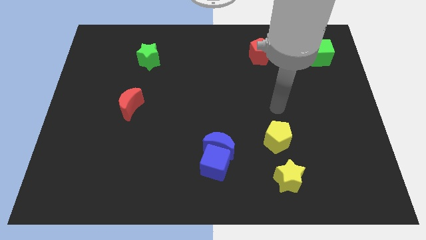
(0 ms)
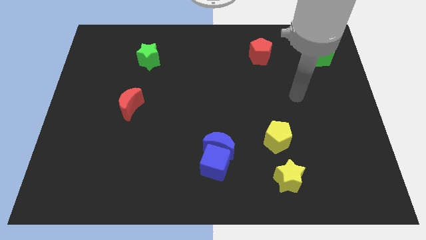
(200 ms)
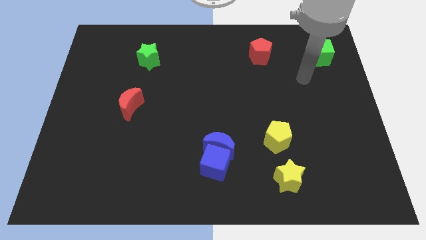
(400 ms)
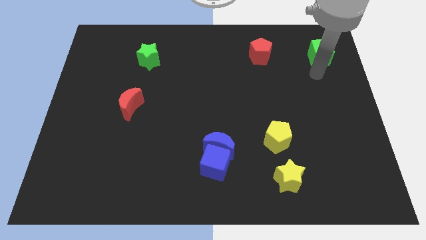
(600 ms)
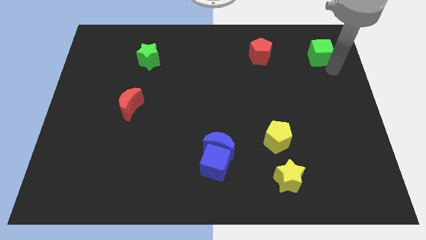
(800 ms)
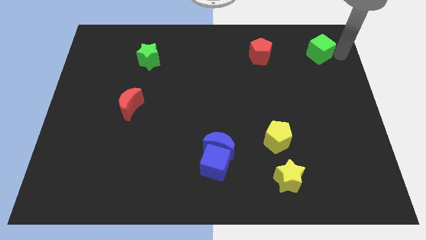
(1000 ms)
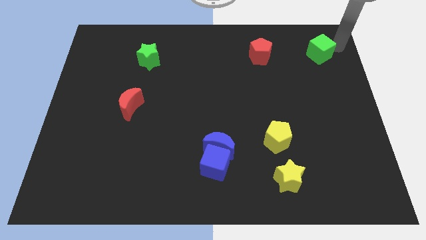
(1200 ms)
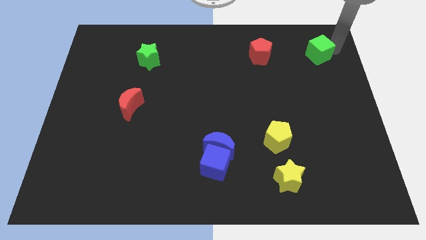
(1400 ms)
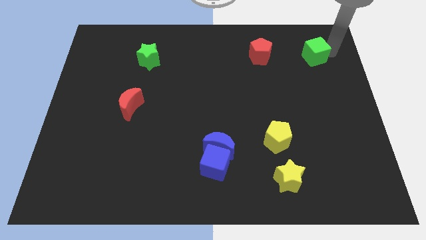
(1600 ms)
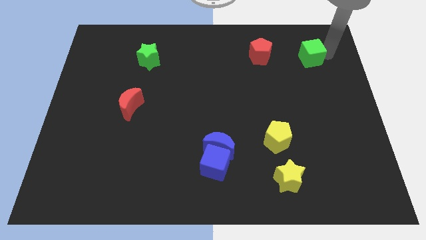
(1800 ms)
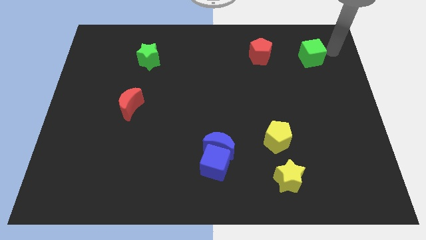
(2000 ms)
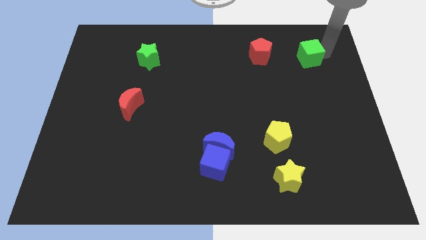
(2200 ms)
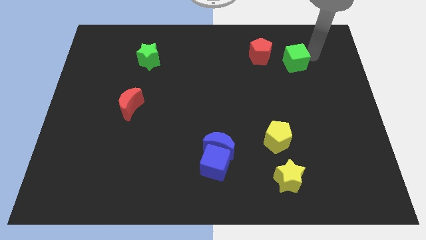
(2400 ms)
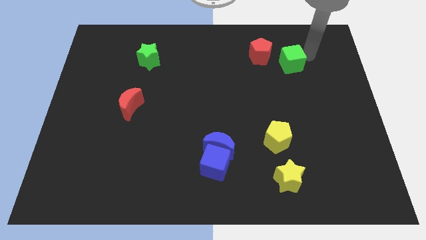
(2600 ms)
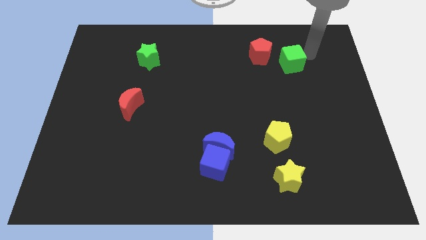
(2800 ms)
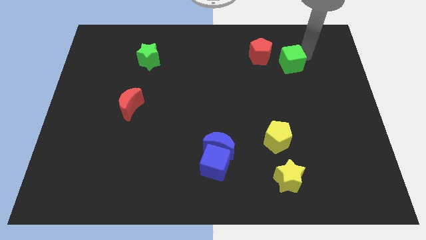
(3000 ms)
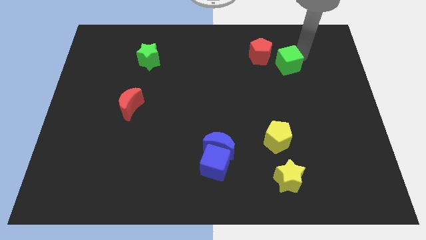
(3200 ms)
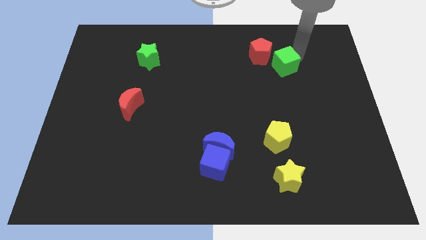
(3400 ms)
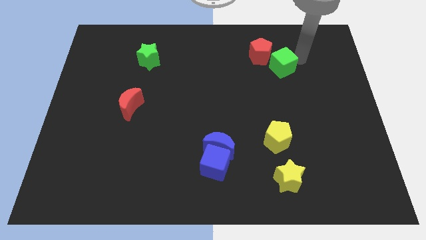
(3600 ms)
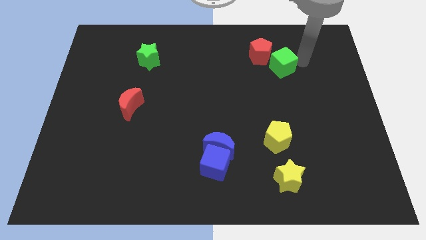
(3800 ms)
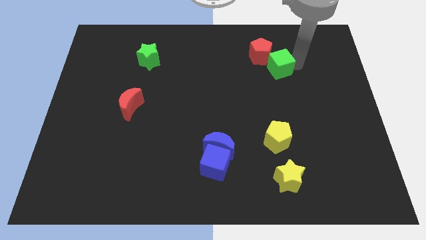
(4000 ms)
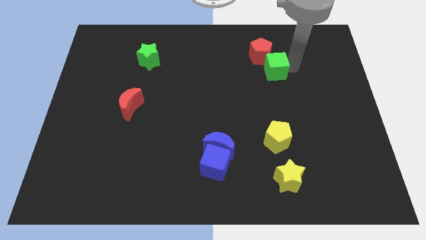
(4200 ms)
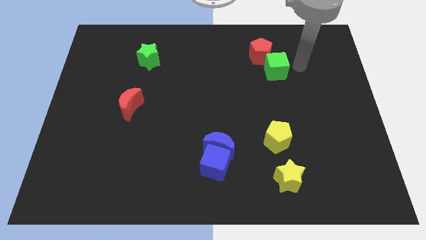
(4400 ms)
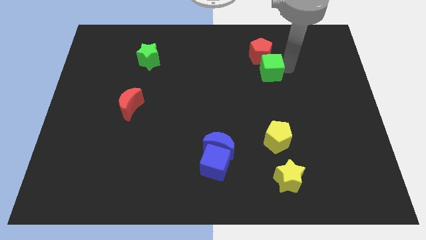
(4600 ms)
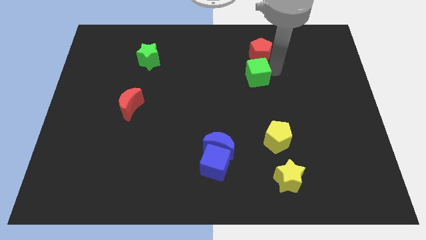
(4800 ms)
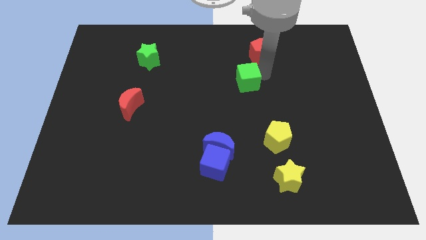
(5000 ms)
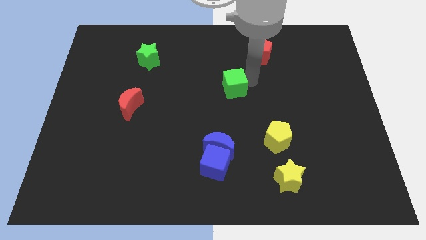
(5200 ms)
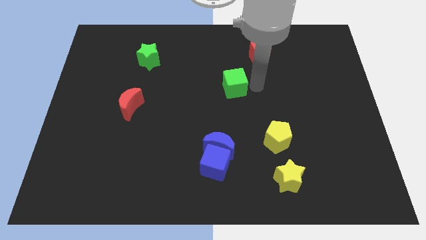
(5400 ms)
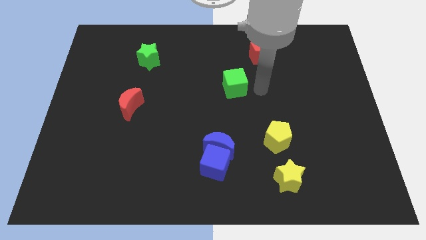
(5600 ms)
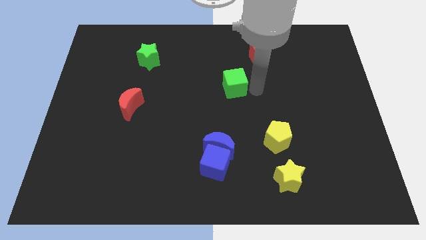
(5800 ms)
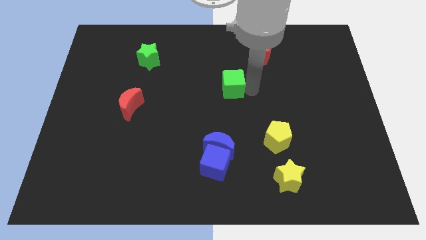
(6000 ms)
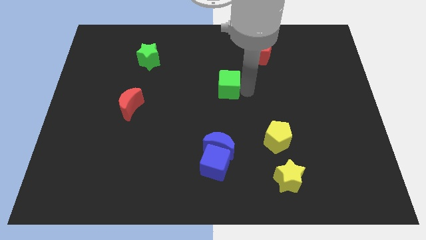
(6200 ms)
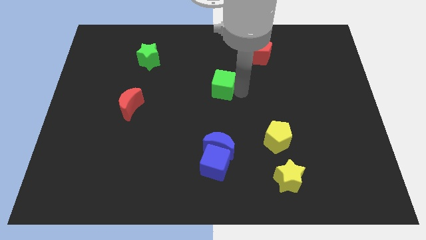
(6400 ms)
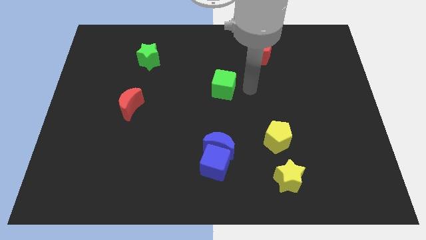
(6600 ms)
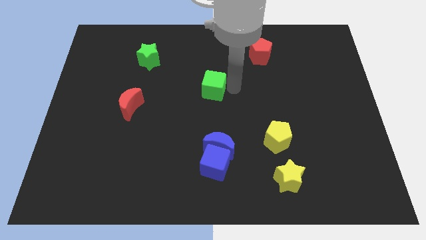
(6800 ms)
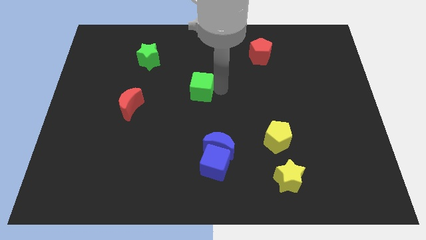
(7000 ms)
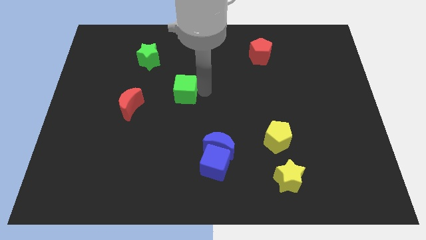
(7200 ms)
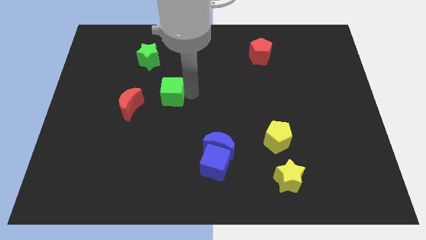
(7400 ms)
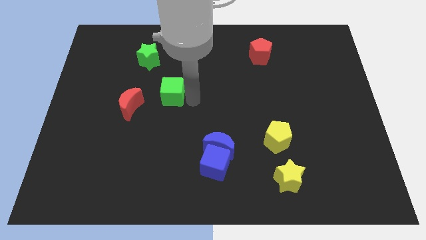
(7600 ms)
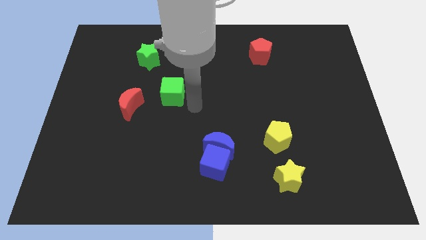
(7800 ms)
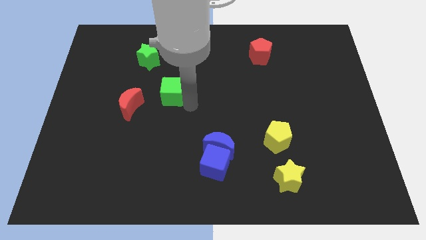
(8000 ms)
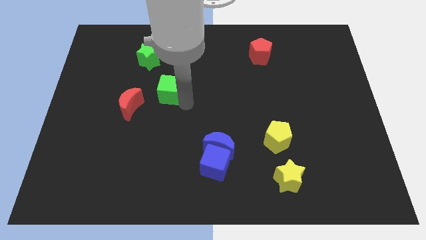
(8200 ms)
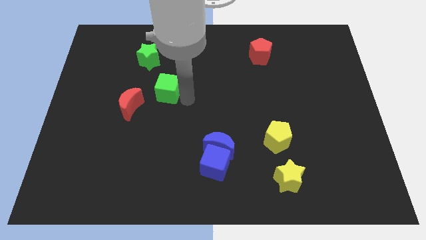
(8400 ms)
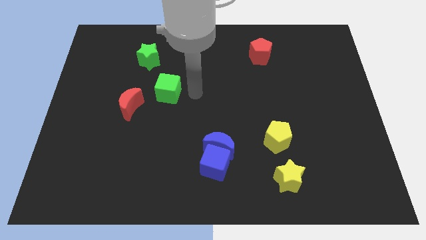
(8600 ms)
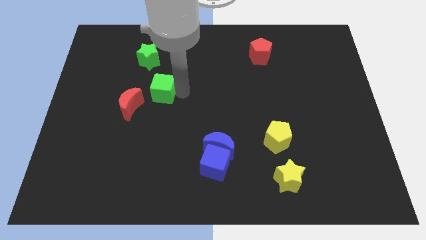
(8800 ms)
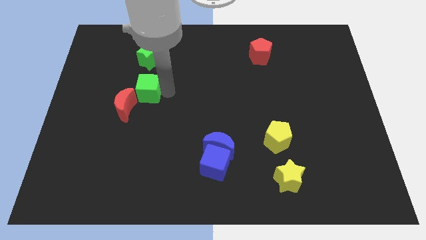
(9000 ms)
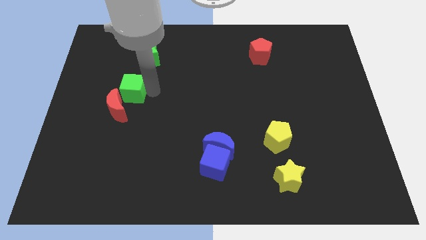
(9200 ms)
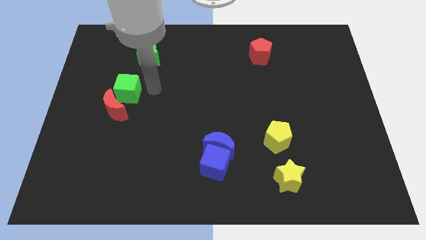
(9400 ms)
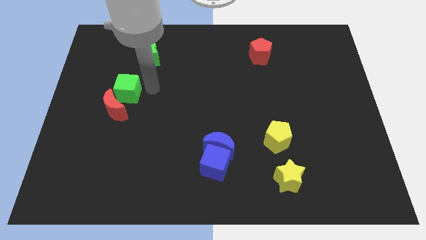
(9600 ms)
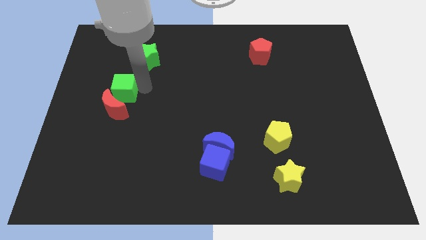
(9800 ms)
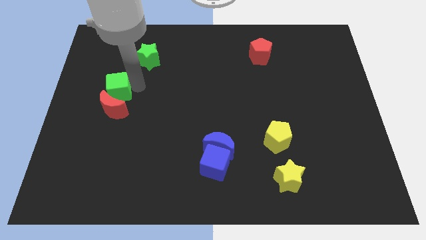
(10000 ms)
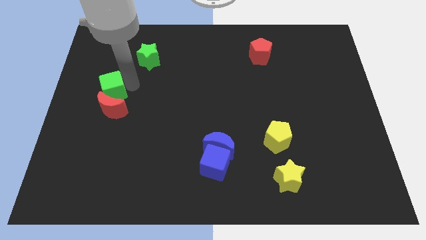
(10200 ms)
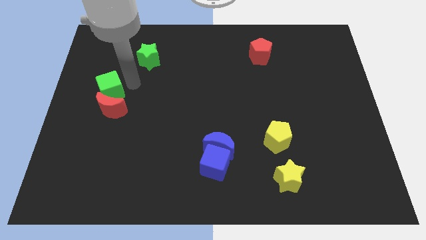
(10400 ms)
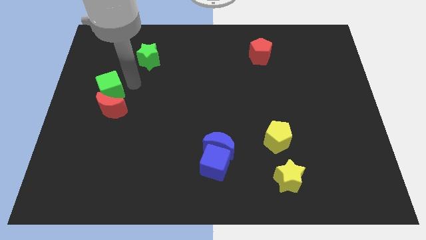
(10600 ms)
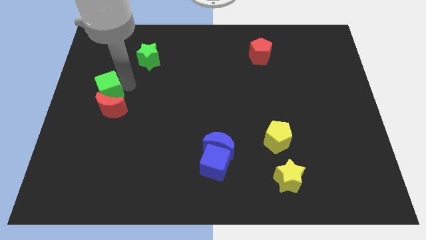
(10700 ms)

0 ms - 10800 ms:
slide the green cube to the left side of the board

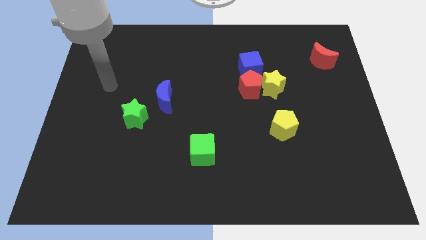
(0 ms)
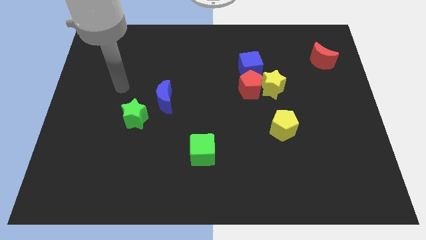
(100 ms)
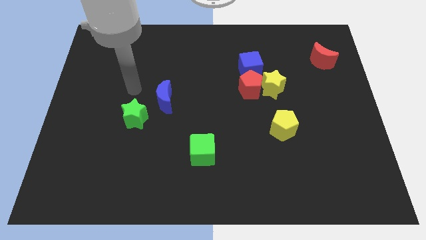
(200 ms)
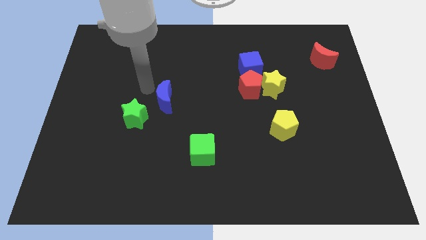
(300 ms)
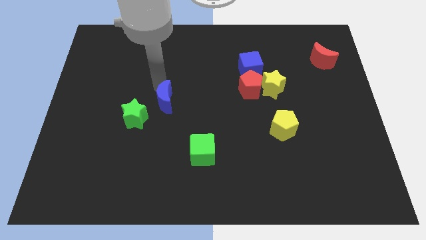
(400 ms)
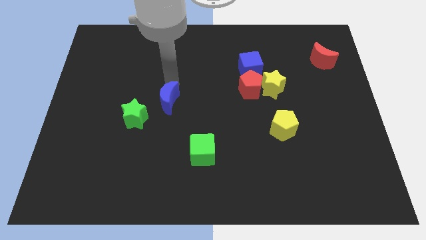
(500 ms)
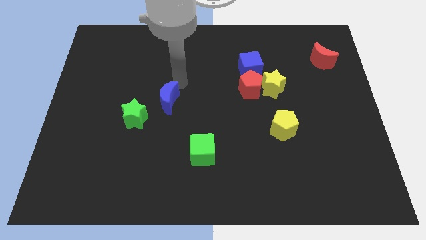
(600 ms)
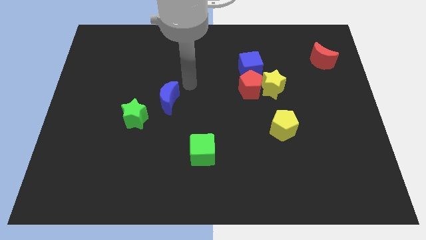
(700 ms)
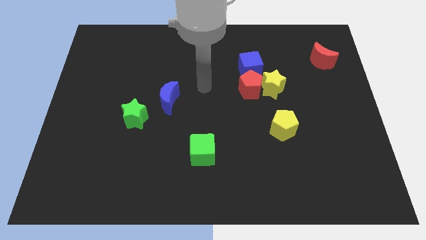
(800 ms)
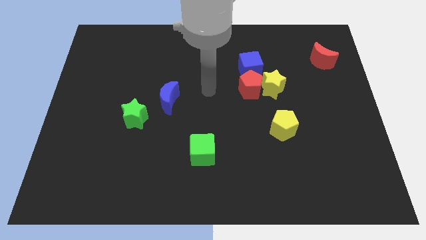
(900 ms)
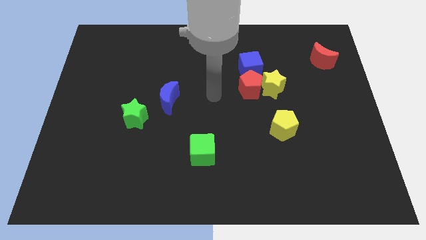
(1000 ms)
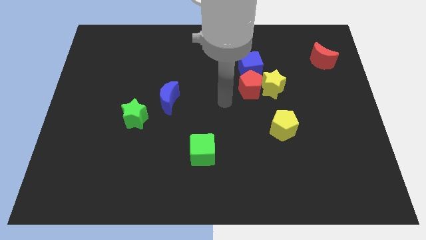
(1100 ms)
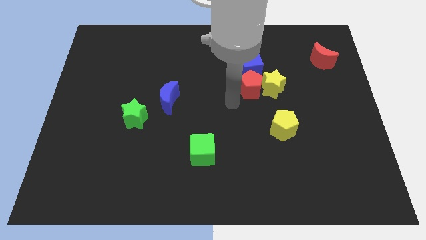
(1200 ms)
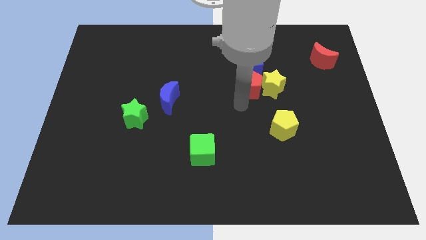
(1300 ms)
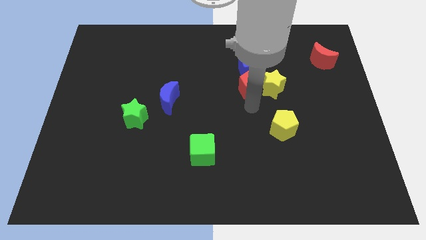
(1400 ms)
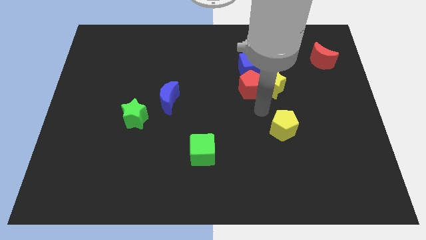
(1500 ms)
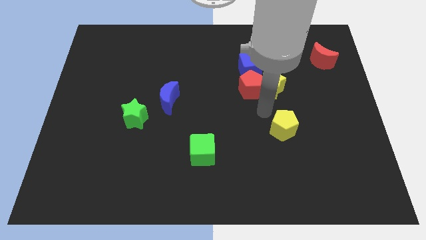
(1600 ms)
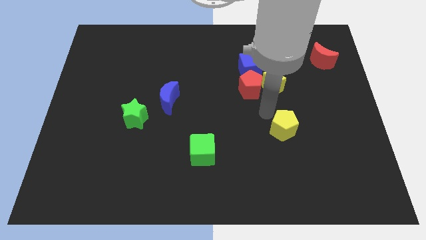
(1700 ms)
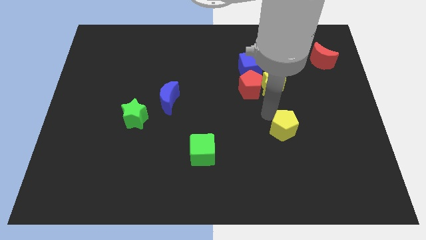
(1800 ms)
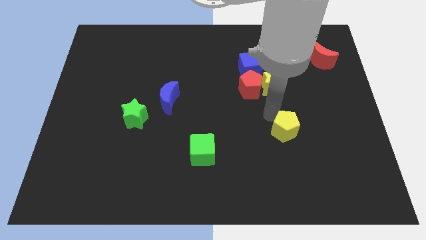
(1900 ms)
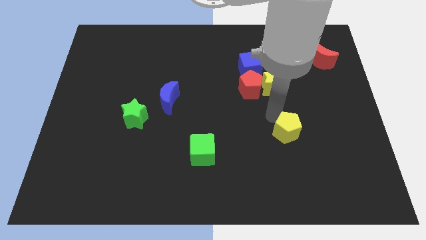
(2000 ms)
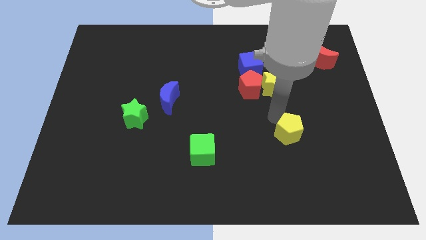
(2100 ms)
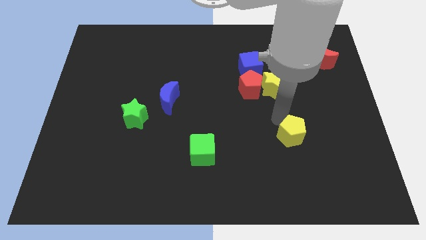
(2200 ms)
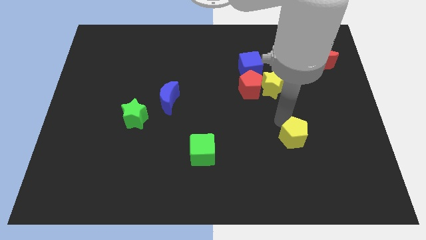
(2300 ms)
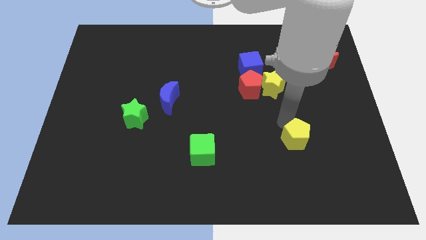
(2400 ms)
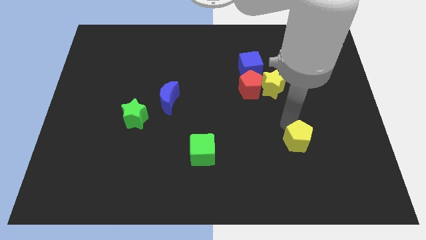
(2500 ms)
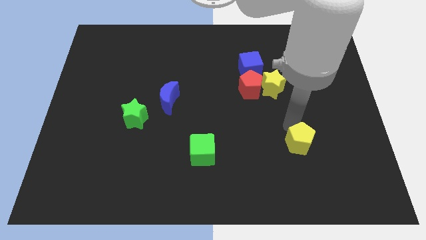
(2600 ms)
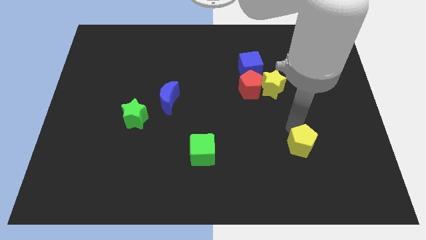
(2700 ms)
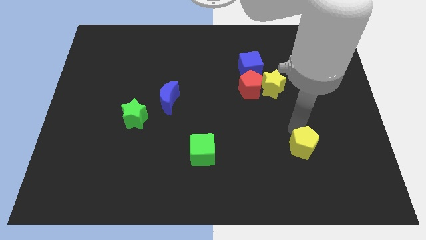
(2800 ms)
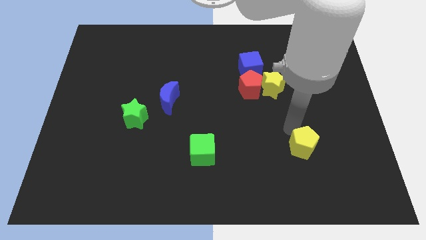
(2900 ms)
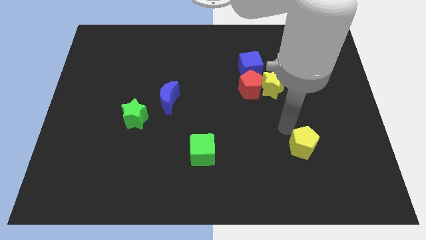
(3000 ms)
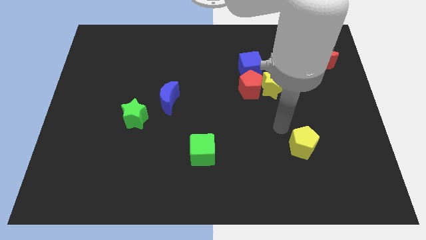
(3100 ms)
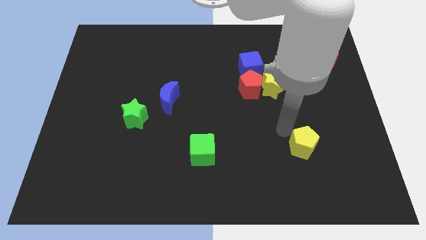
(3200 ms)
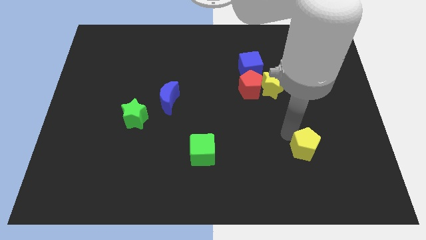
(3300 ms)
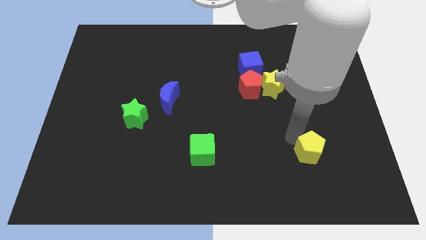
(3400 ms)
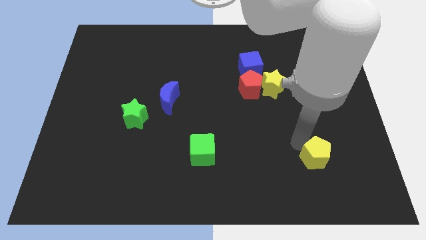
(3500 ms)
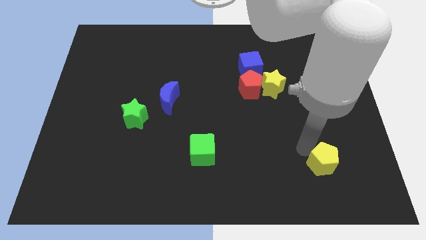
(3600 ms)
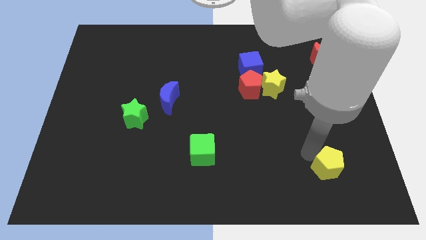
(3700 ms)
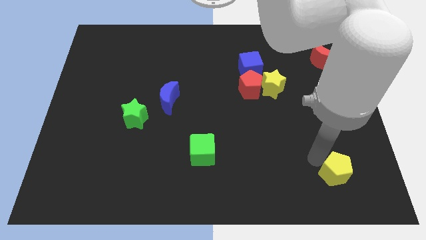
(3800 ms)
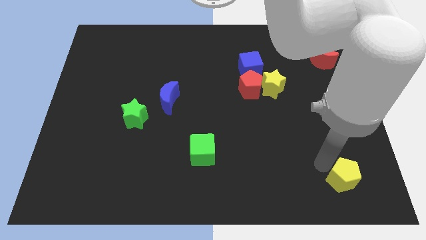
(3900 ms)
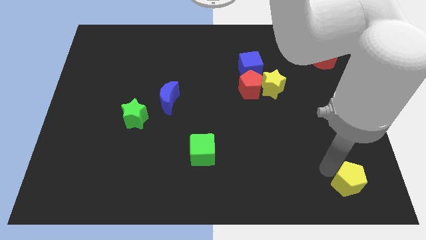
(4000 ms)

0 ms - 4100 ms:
push the yellow pentagon to the bottom right corner
